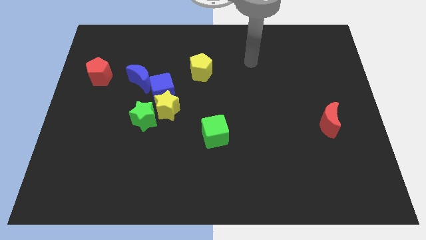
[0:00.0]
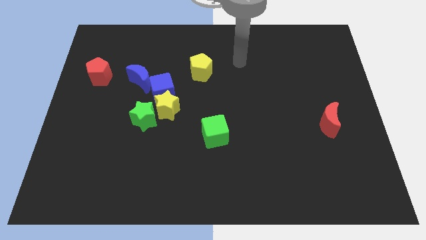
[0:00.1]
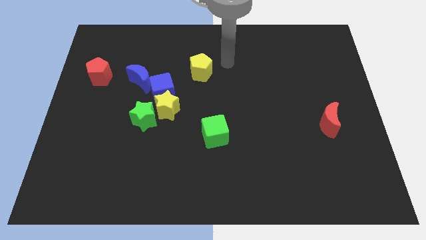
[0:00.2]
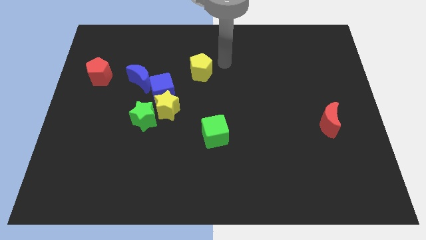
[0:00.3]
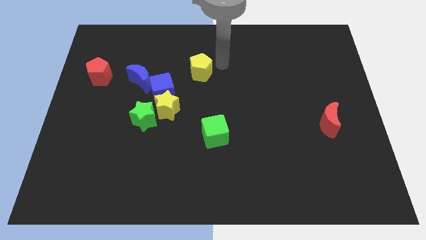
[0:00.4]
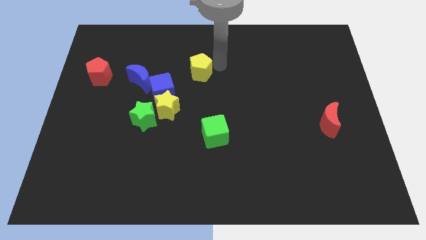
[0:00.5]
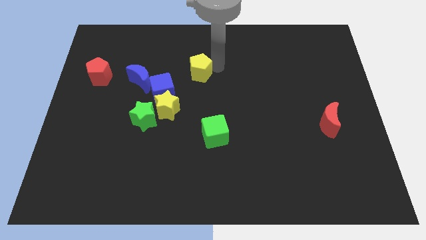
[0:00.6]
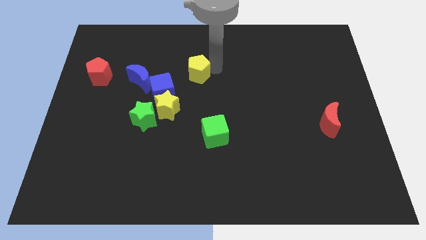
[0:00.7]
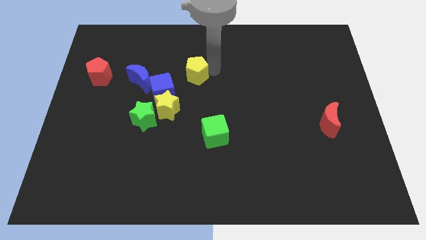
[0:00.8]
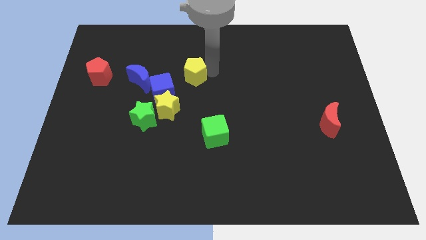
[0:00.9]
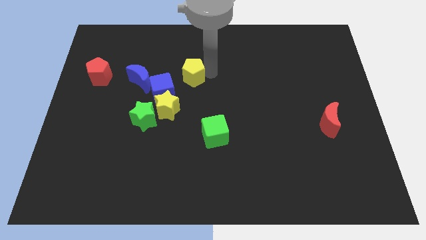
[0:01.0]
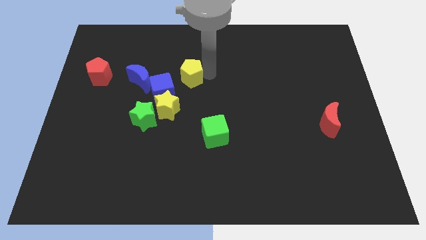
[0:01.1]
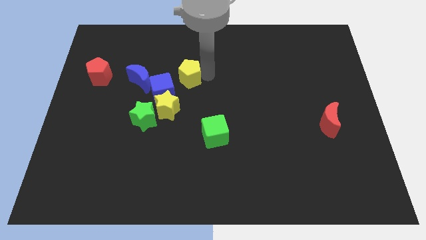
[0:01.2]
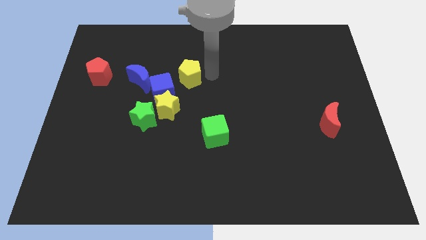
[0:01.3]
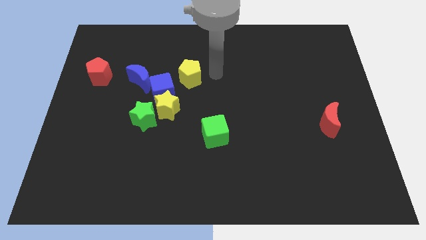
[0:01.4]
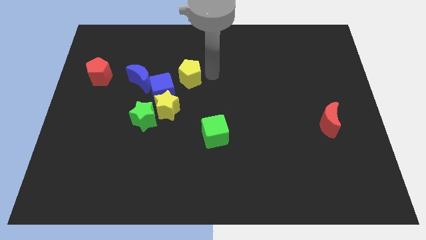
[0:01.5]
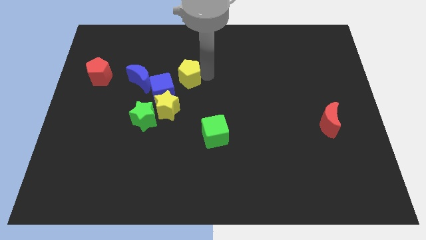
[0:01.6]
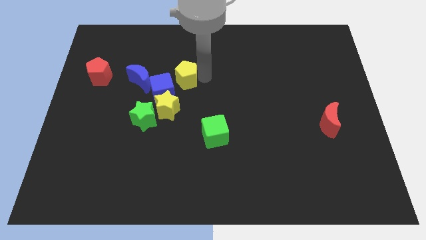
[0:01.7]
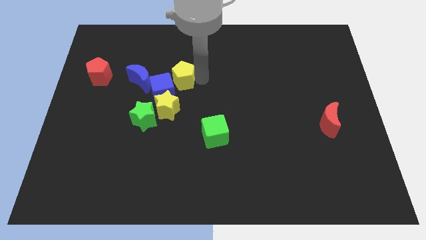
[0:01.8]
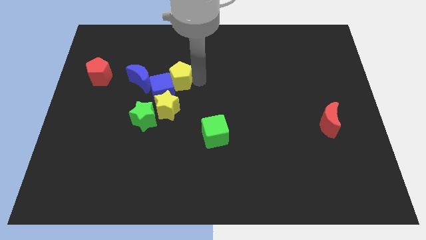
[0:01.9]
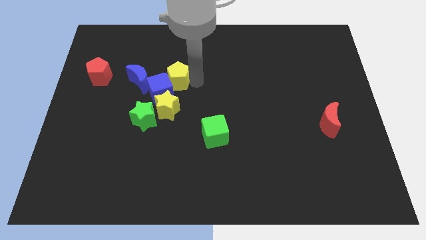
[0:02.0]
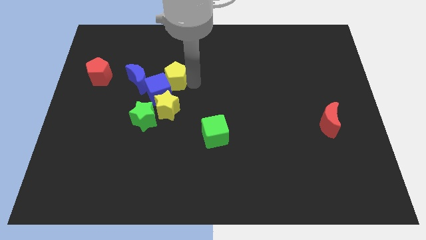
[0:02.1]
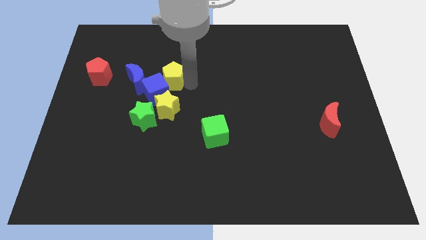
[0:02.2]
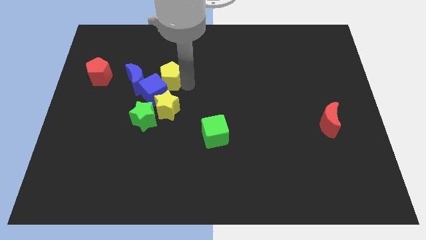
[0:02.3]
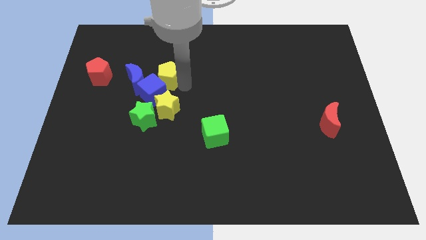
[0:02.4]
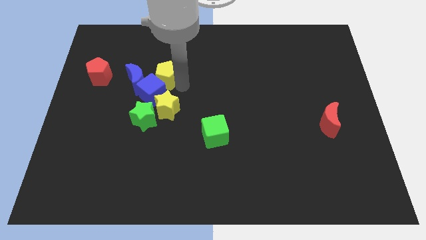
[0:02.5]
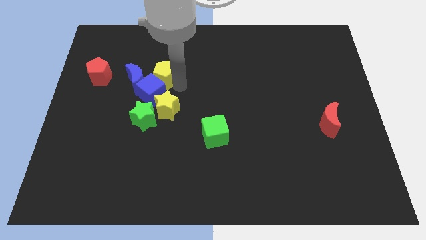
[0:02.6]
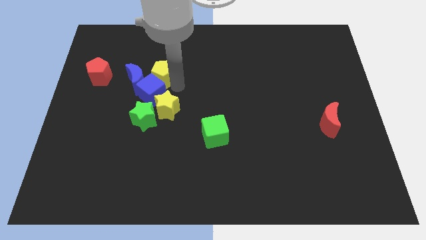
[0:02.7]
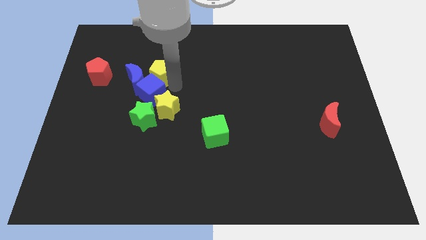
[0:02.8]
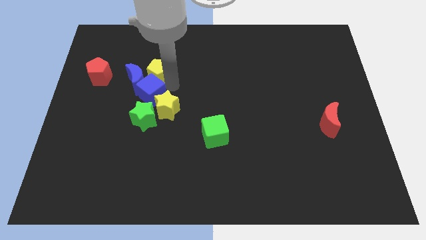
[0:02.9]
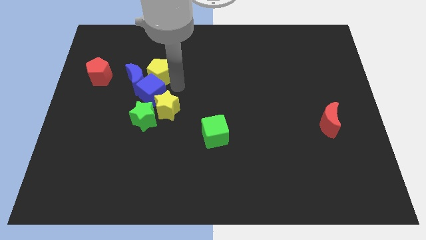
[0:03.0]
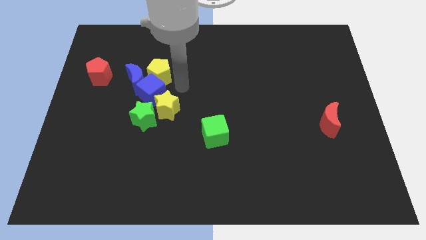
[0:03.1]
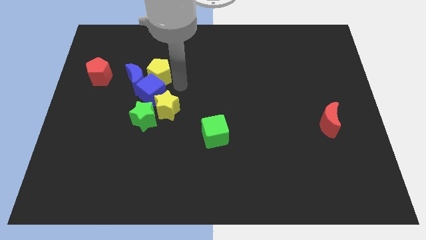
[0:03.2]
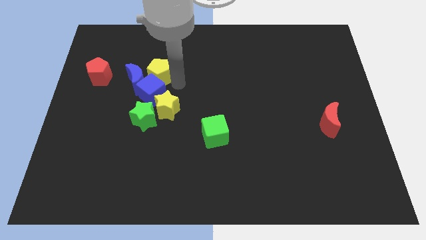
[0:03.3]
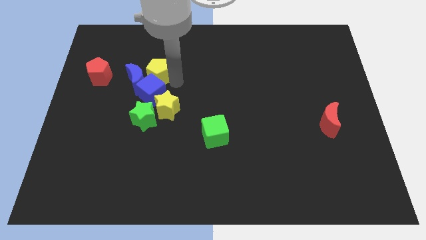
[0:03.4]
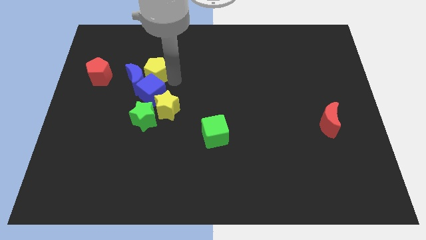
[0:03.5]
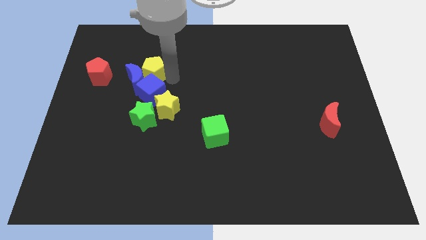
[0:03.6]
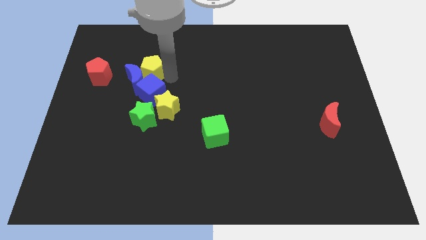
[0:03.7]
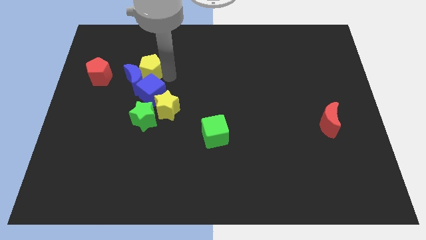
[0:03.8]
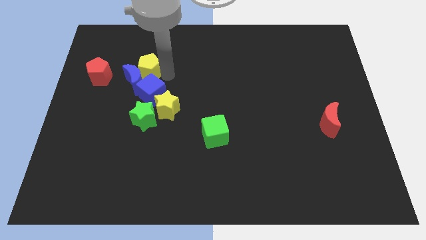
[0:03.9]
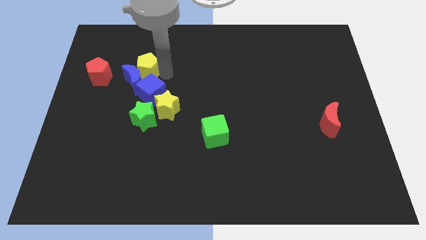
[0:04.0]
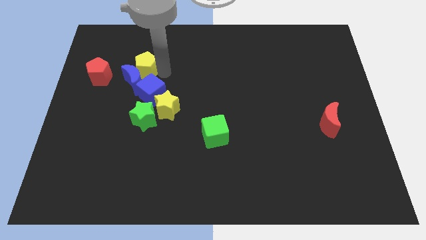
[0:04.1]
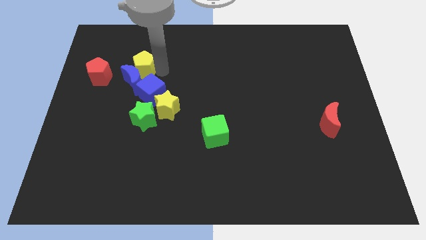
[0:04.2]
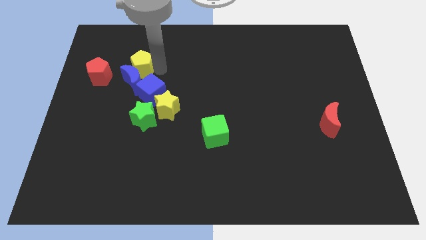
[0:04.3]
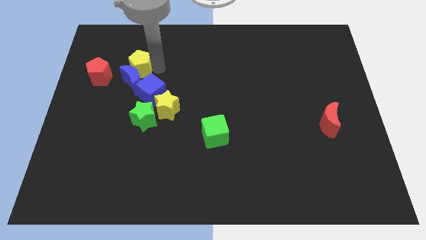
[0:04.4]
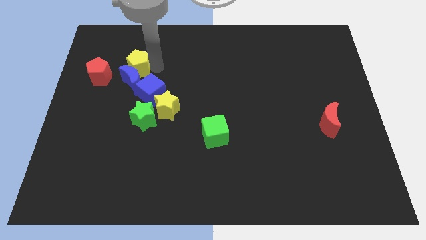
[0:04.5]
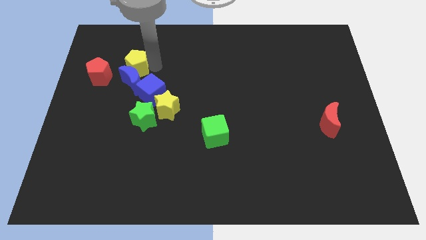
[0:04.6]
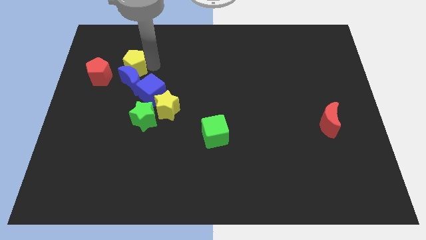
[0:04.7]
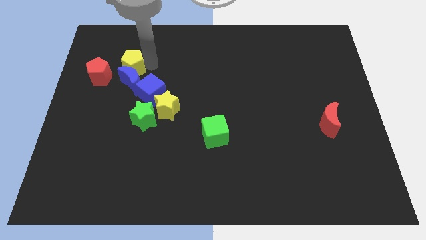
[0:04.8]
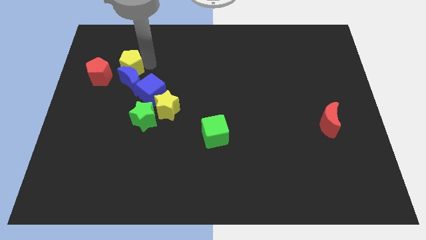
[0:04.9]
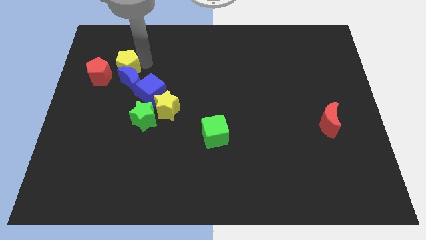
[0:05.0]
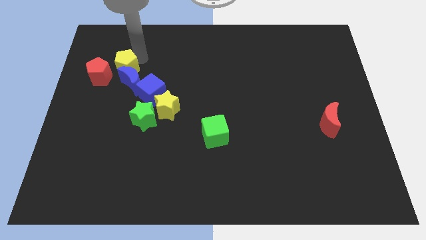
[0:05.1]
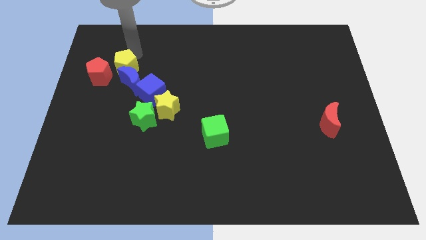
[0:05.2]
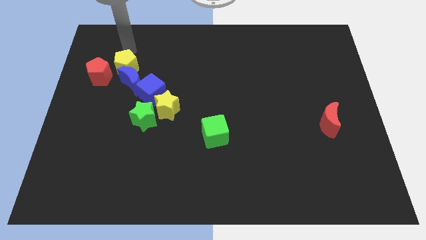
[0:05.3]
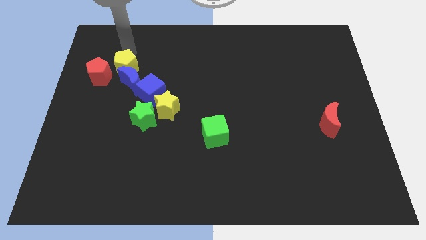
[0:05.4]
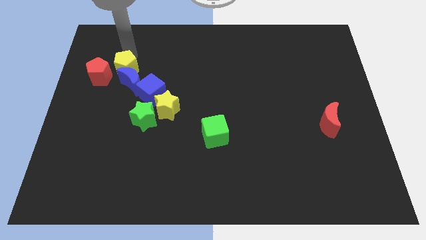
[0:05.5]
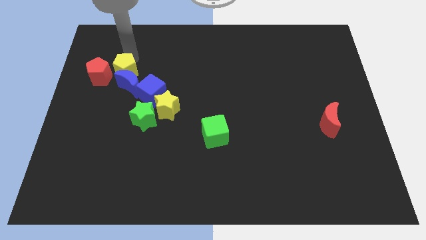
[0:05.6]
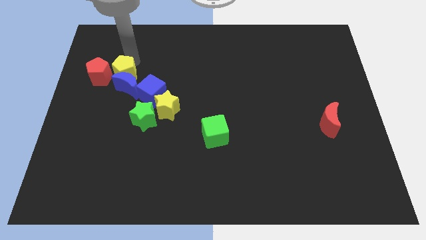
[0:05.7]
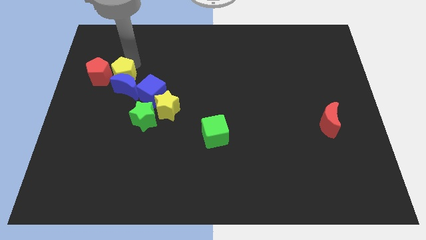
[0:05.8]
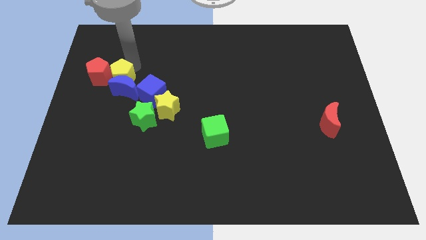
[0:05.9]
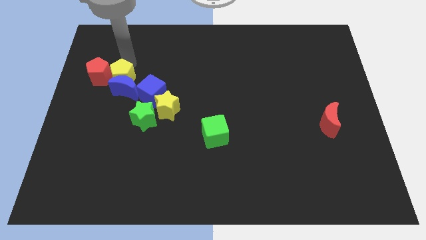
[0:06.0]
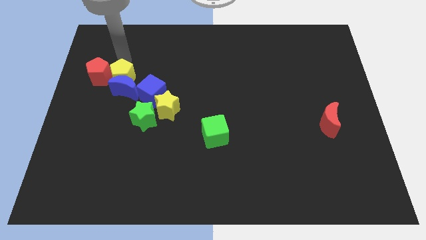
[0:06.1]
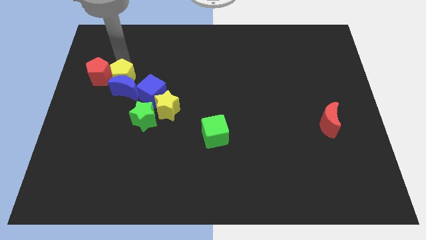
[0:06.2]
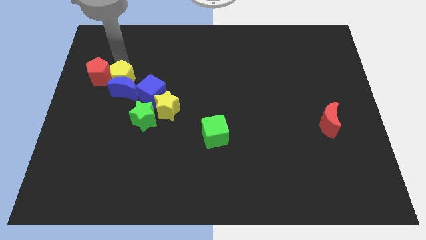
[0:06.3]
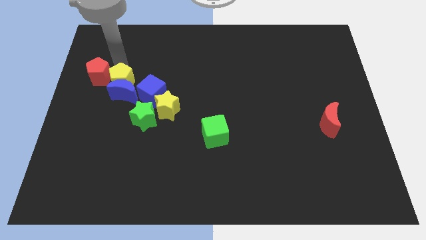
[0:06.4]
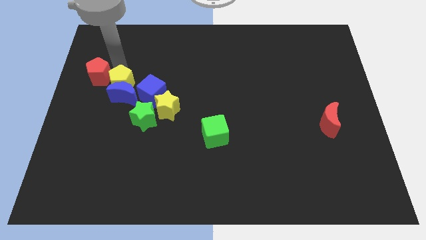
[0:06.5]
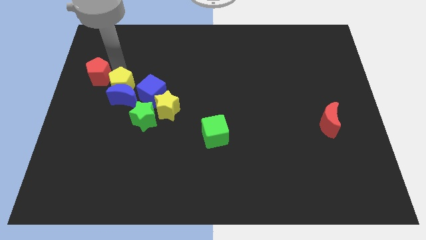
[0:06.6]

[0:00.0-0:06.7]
move the yellow pentagon diagonally up and to the left of the green star
